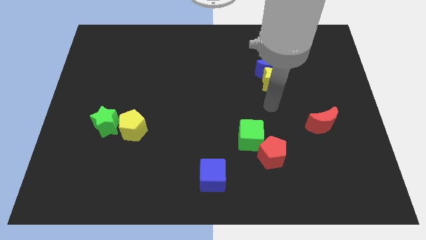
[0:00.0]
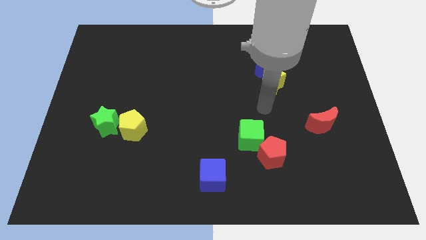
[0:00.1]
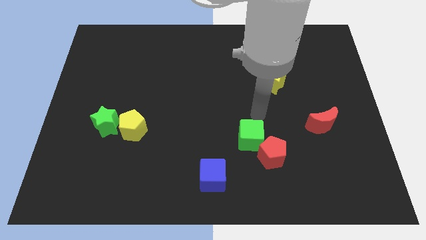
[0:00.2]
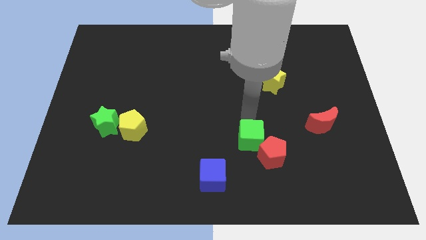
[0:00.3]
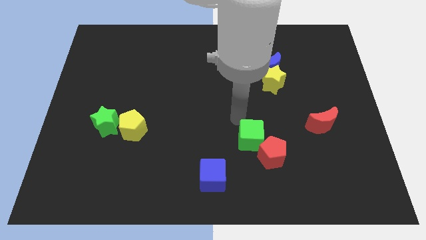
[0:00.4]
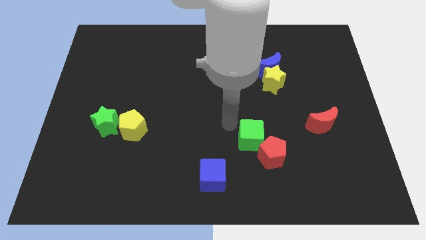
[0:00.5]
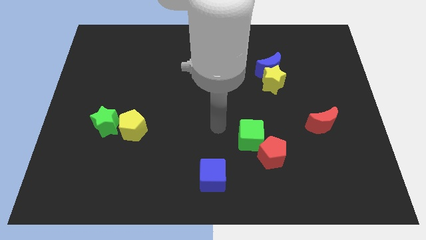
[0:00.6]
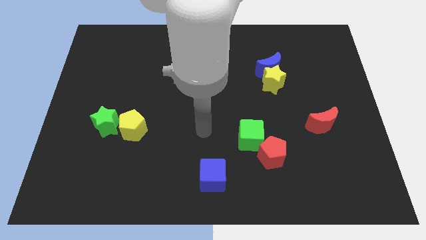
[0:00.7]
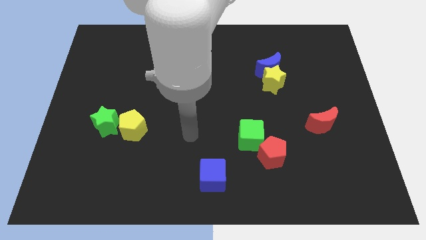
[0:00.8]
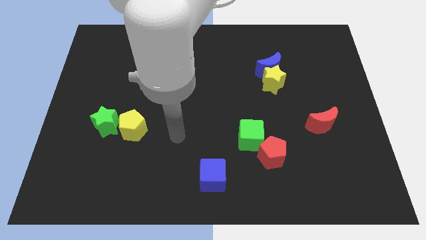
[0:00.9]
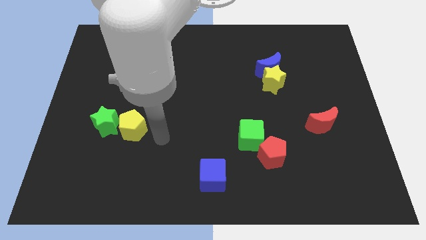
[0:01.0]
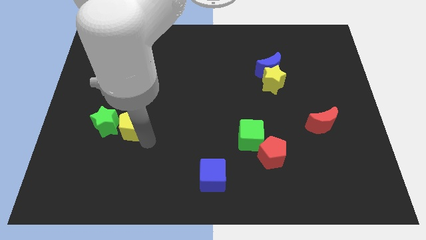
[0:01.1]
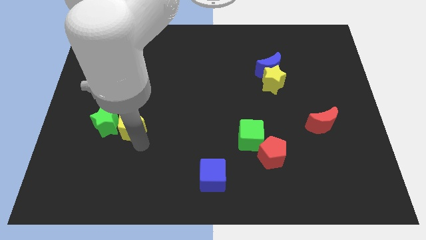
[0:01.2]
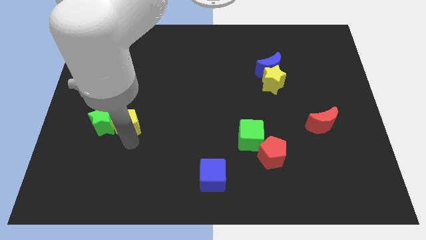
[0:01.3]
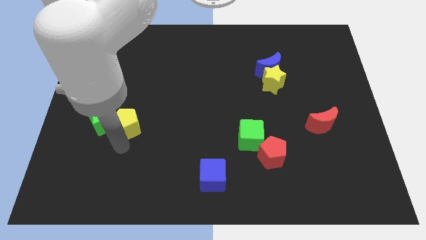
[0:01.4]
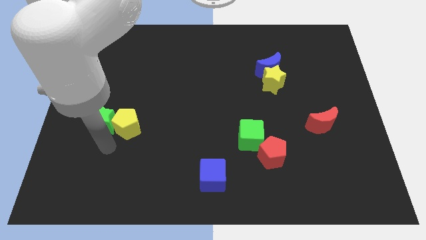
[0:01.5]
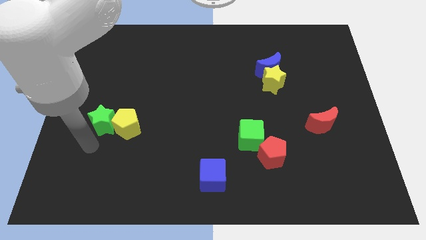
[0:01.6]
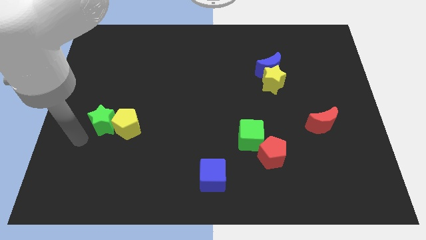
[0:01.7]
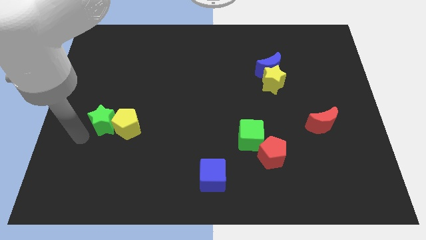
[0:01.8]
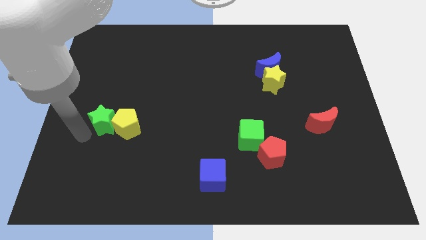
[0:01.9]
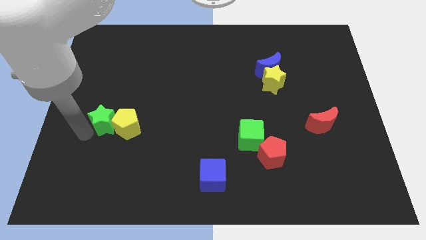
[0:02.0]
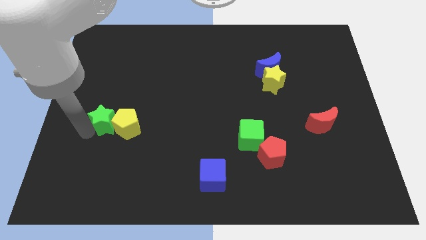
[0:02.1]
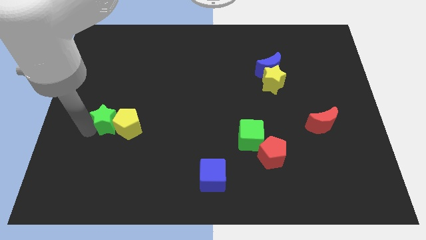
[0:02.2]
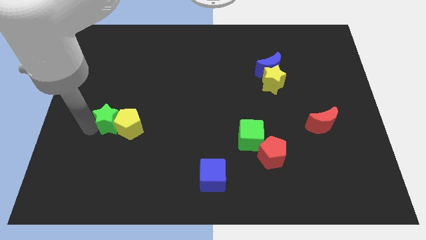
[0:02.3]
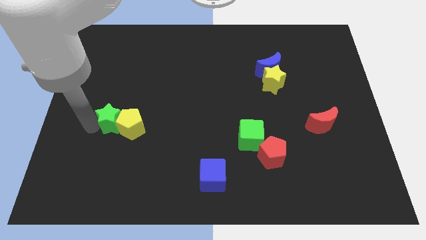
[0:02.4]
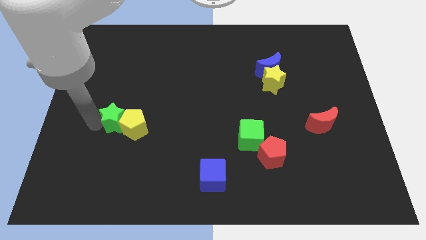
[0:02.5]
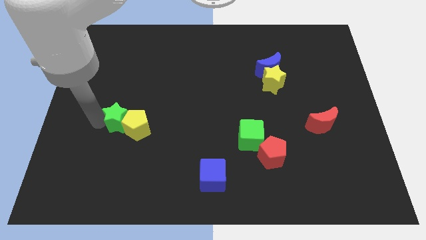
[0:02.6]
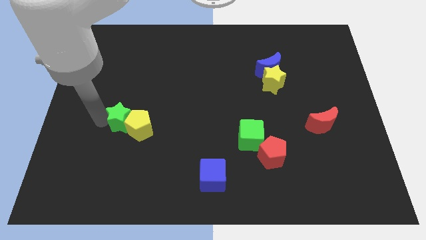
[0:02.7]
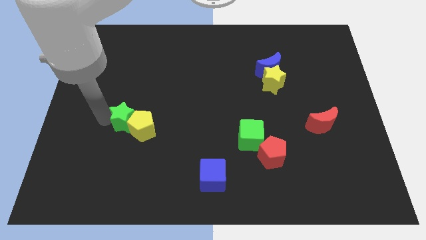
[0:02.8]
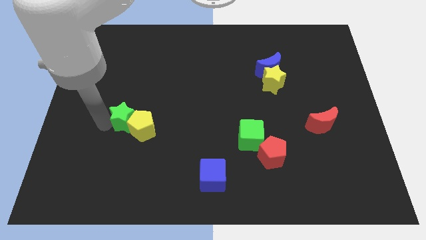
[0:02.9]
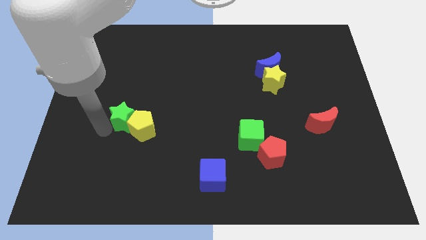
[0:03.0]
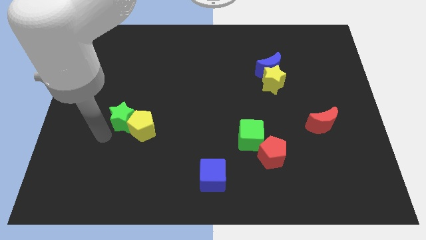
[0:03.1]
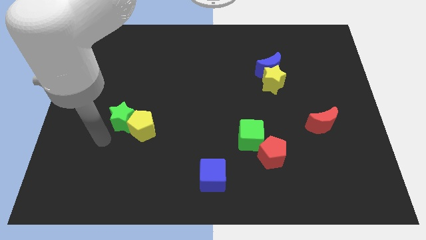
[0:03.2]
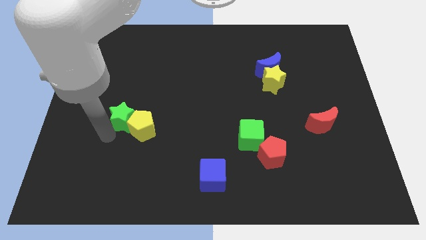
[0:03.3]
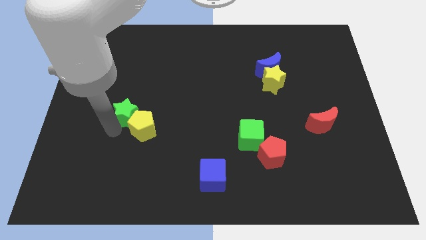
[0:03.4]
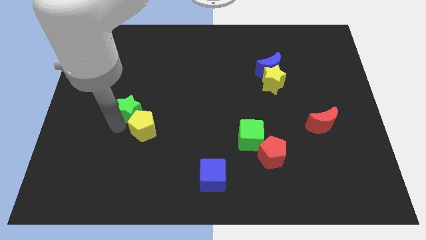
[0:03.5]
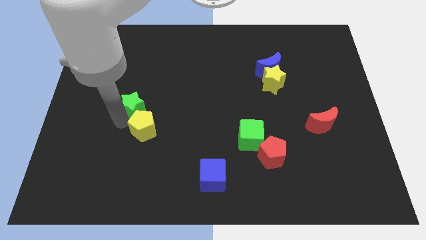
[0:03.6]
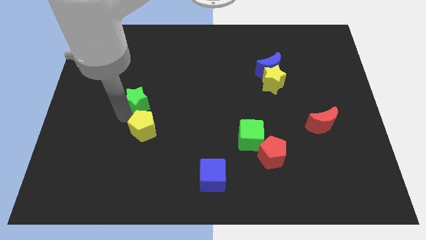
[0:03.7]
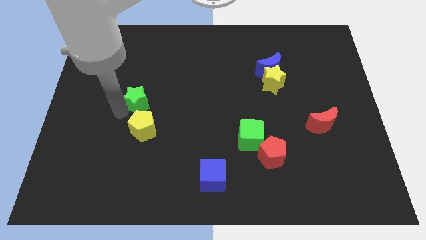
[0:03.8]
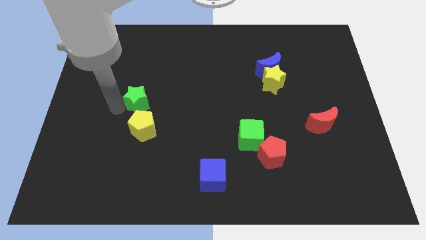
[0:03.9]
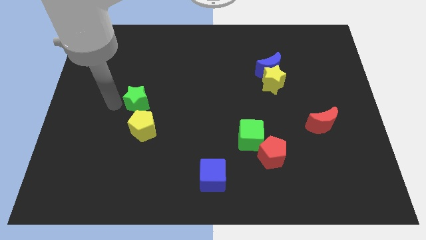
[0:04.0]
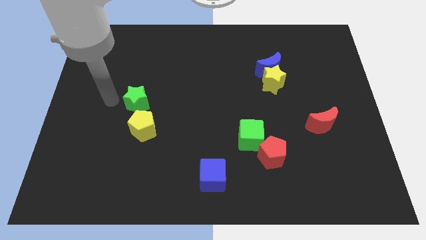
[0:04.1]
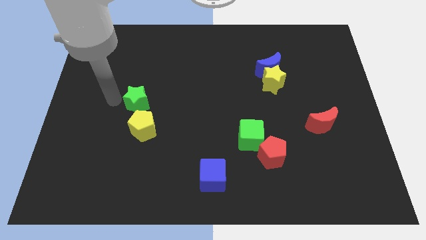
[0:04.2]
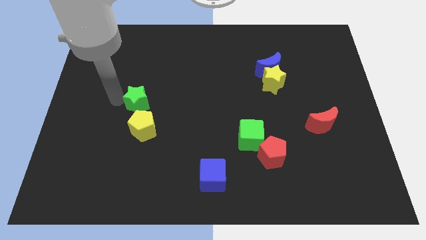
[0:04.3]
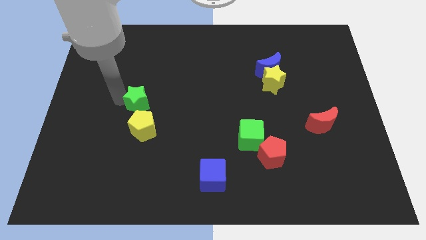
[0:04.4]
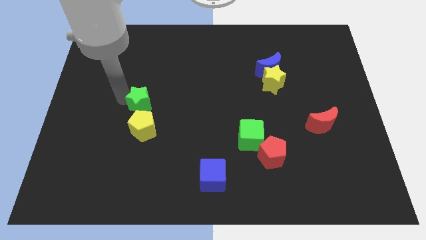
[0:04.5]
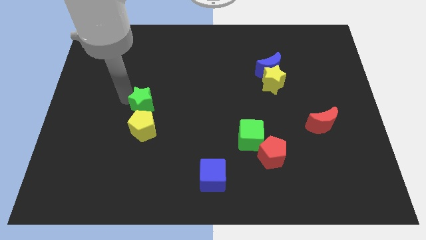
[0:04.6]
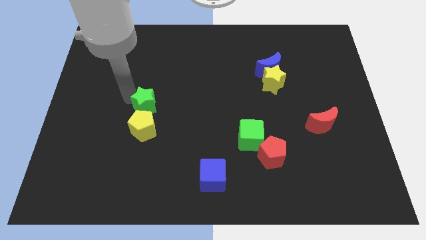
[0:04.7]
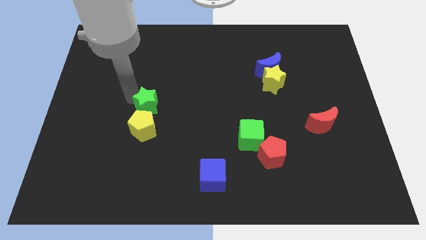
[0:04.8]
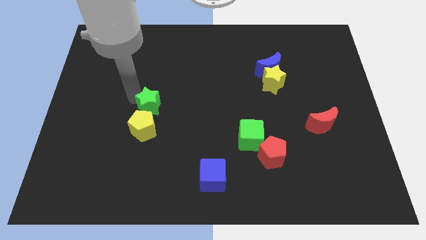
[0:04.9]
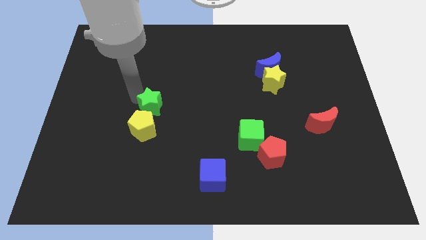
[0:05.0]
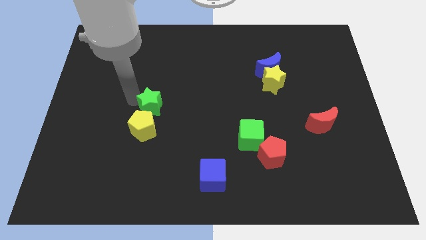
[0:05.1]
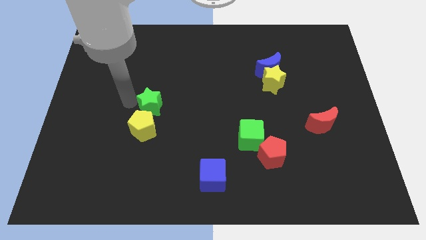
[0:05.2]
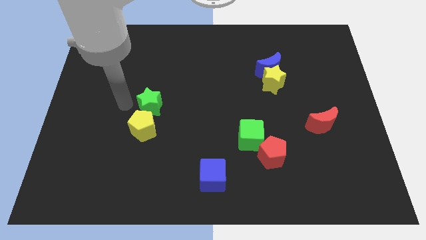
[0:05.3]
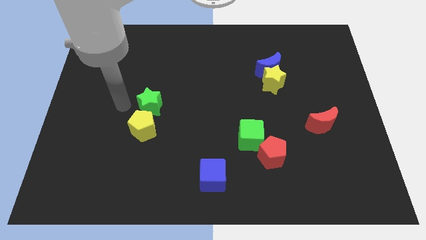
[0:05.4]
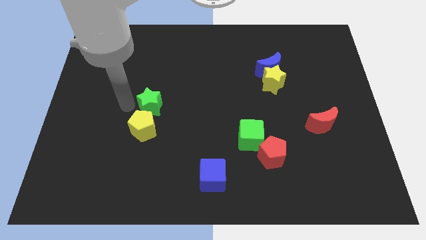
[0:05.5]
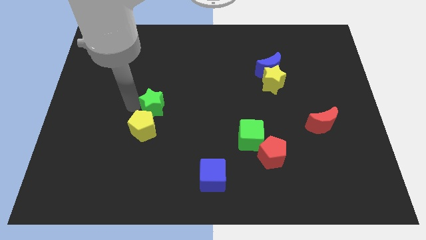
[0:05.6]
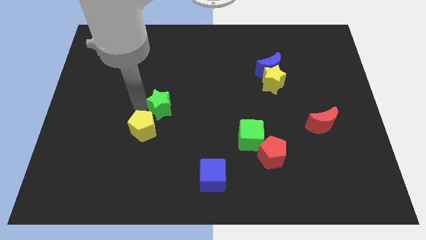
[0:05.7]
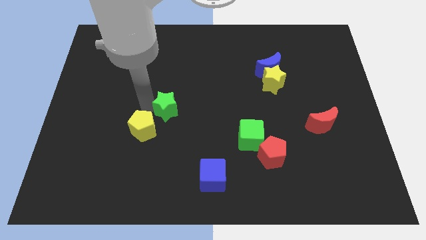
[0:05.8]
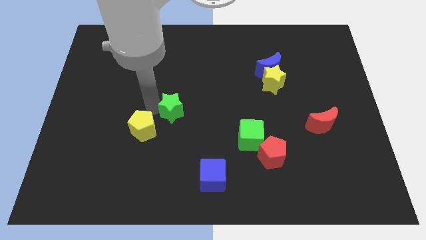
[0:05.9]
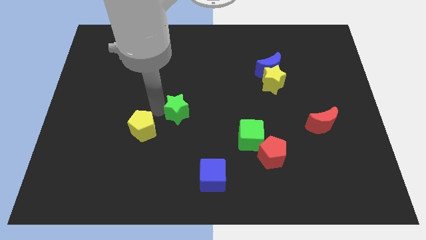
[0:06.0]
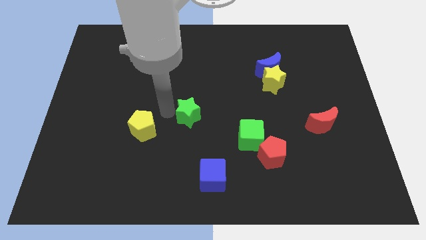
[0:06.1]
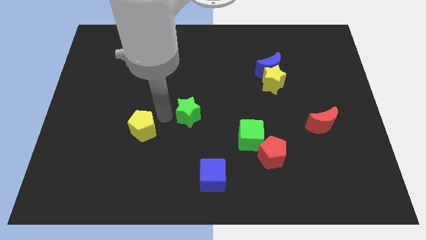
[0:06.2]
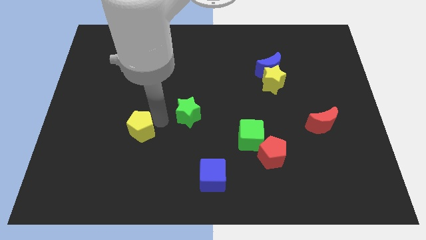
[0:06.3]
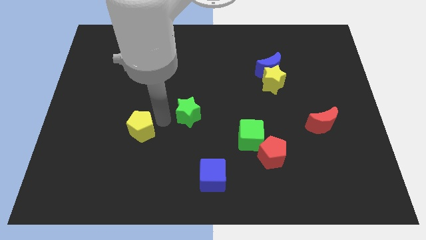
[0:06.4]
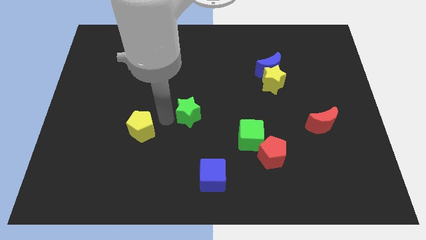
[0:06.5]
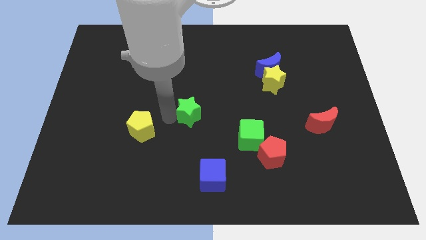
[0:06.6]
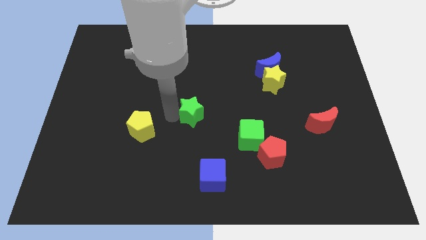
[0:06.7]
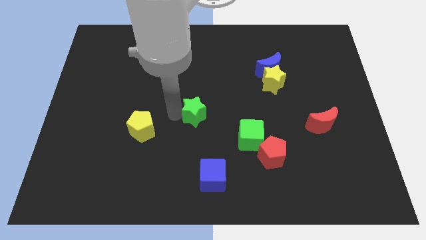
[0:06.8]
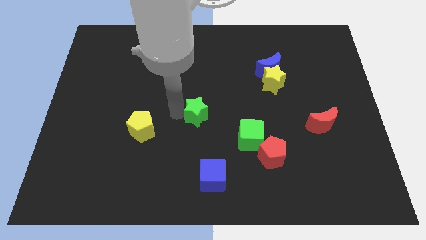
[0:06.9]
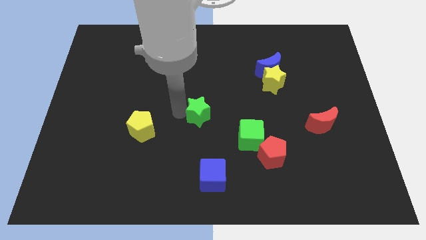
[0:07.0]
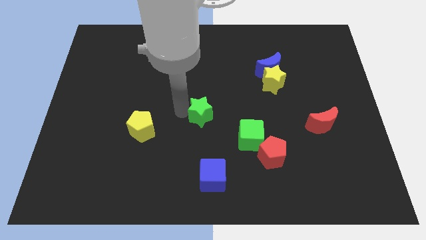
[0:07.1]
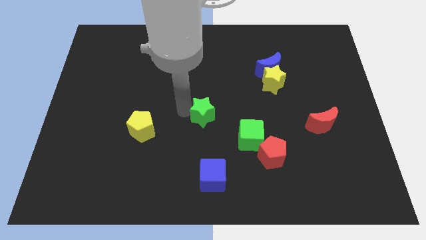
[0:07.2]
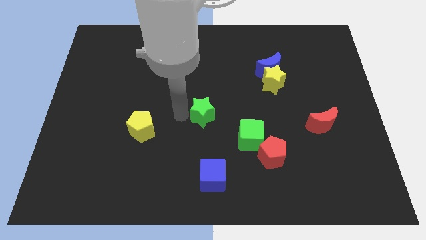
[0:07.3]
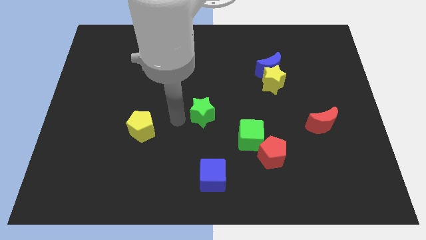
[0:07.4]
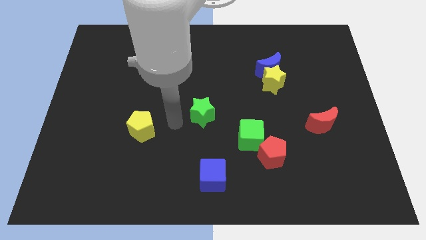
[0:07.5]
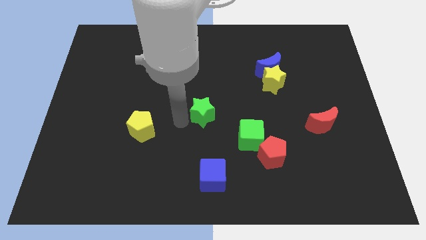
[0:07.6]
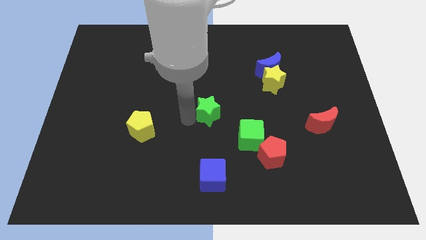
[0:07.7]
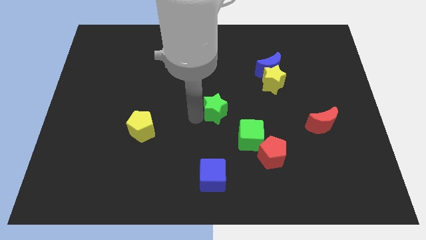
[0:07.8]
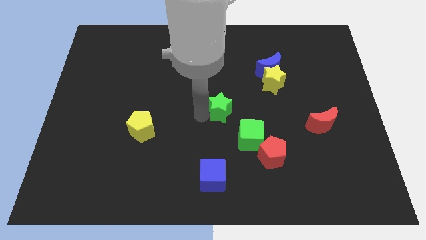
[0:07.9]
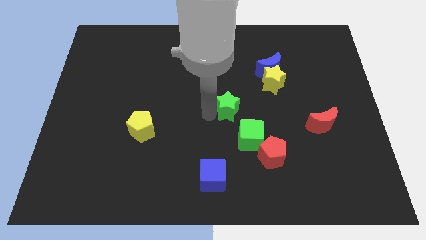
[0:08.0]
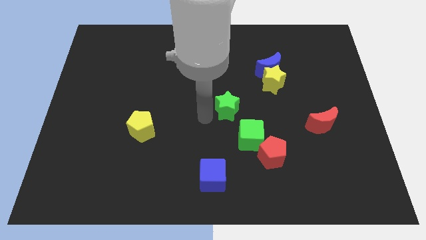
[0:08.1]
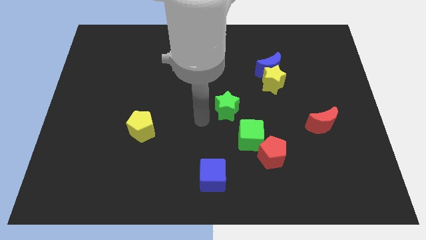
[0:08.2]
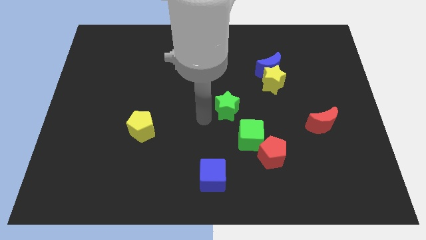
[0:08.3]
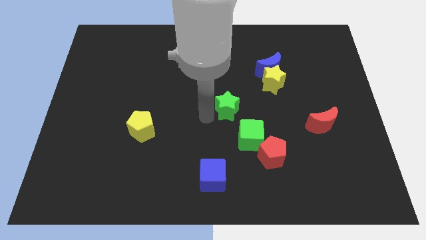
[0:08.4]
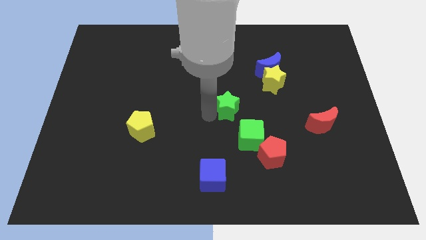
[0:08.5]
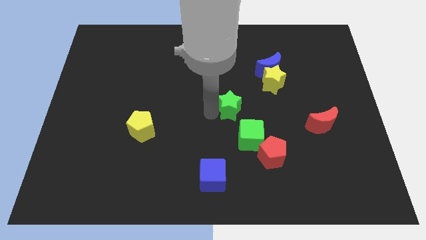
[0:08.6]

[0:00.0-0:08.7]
push the green star to the top of the green cube
